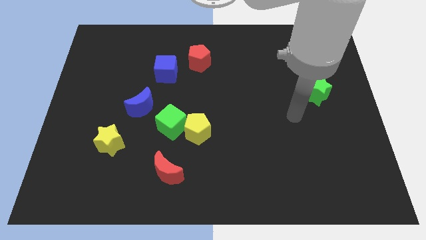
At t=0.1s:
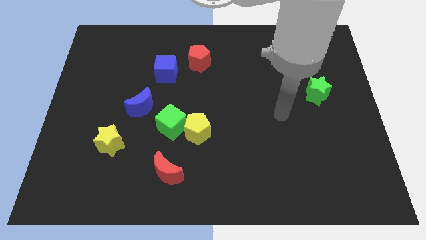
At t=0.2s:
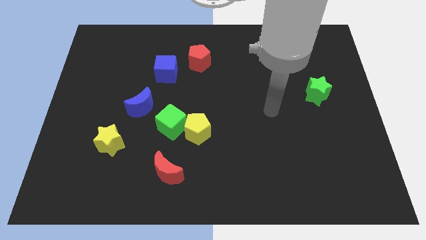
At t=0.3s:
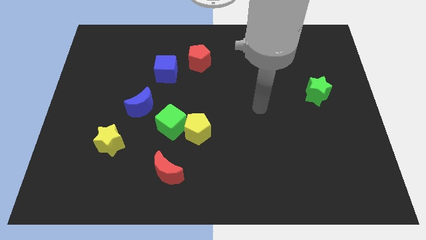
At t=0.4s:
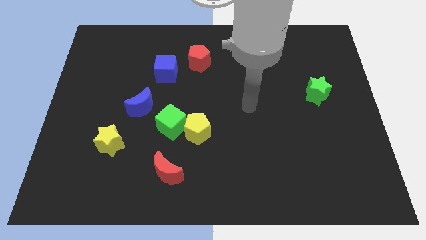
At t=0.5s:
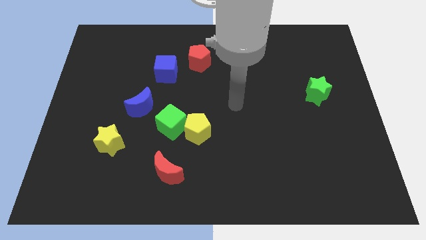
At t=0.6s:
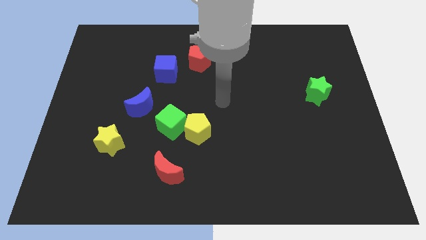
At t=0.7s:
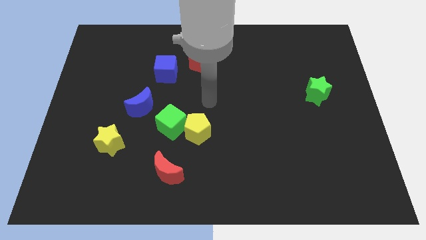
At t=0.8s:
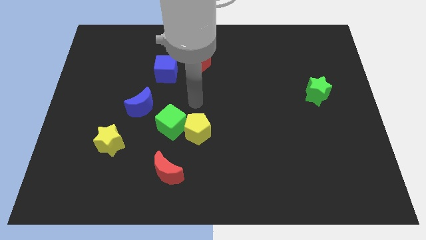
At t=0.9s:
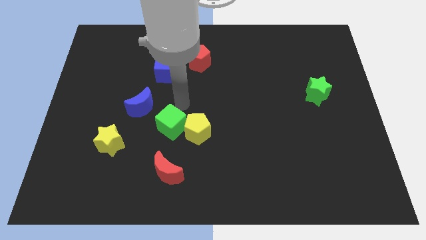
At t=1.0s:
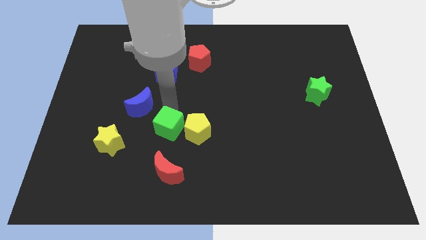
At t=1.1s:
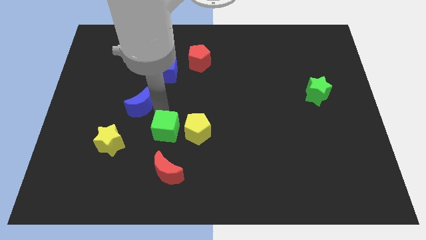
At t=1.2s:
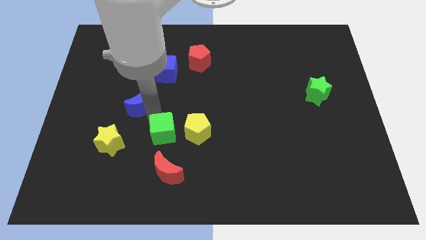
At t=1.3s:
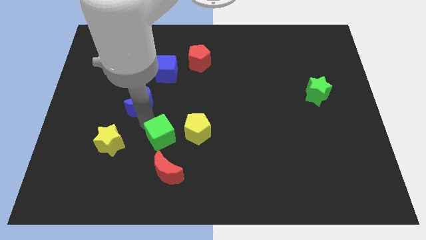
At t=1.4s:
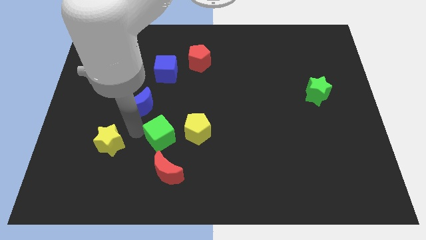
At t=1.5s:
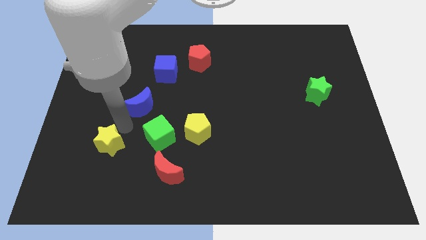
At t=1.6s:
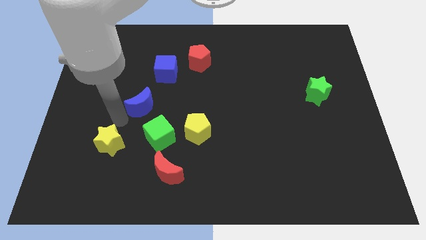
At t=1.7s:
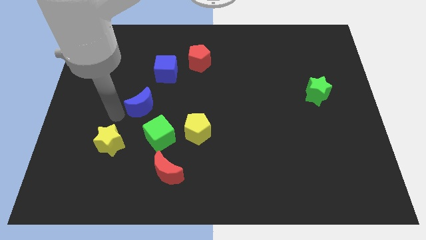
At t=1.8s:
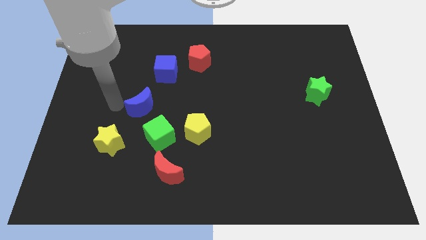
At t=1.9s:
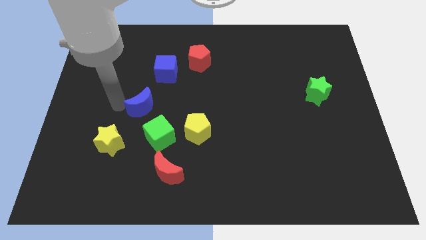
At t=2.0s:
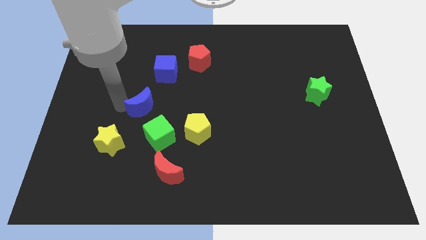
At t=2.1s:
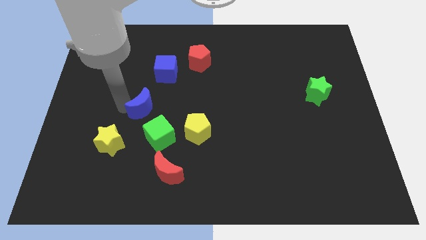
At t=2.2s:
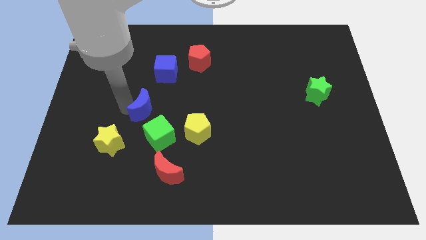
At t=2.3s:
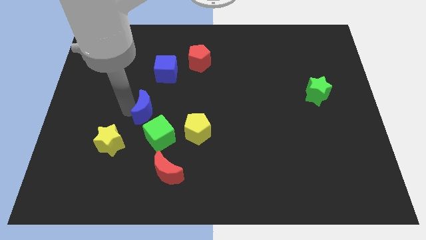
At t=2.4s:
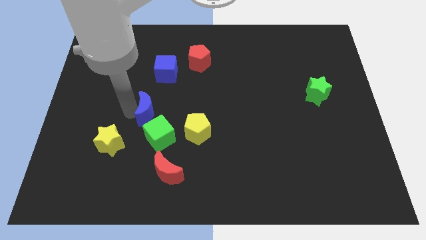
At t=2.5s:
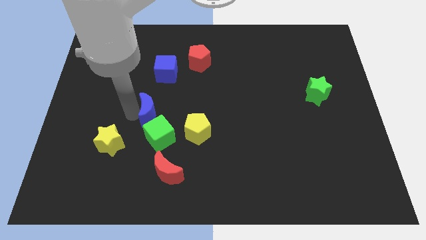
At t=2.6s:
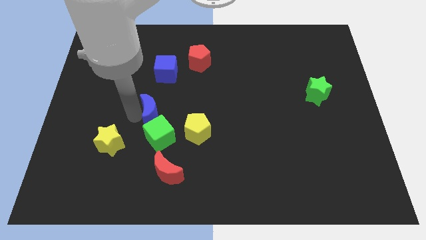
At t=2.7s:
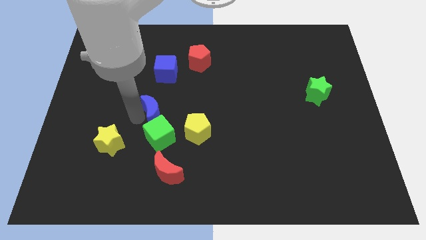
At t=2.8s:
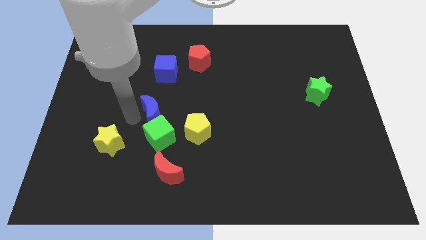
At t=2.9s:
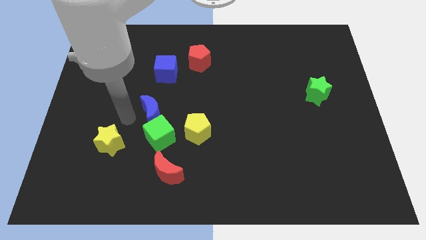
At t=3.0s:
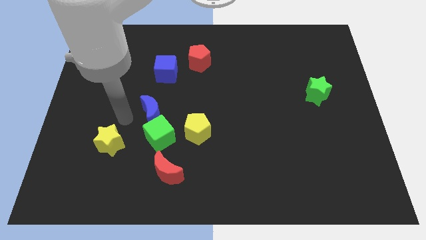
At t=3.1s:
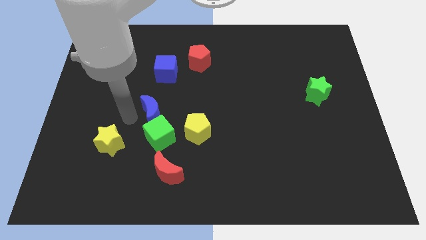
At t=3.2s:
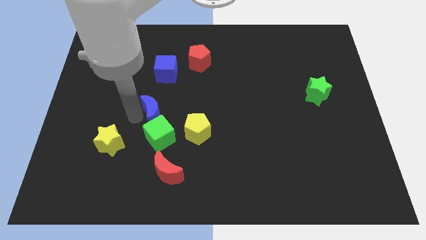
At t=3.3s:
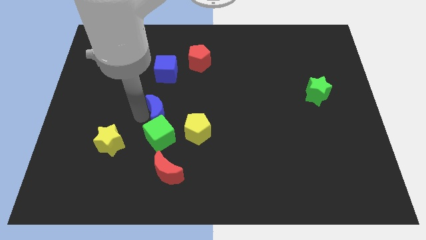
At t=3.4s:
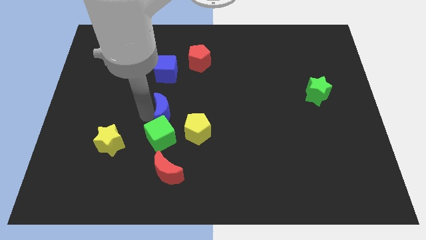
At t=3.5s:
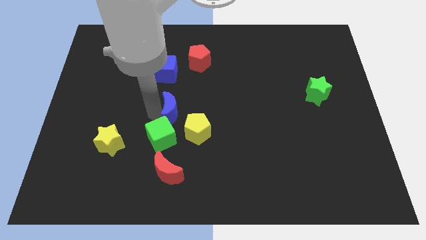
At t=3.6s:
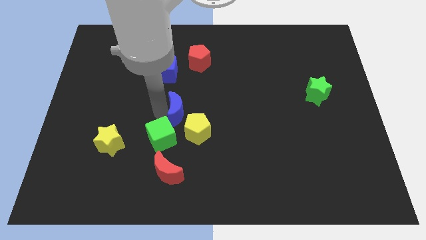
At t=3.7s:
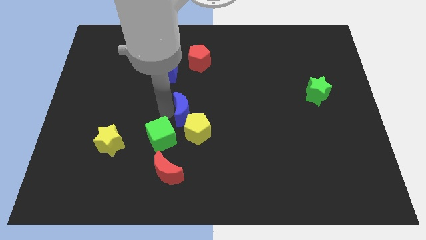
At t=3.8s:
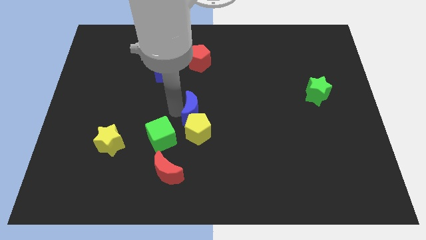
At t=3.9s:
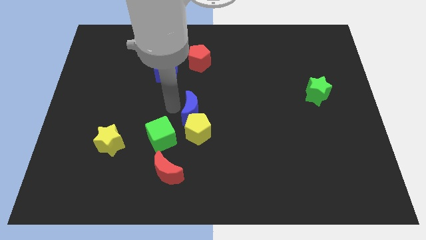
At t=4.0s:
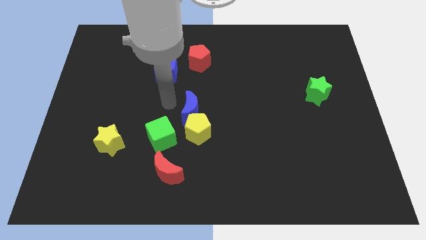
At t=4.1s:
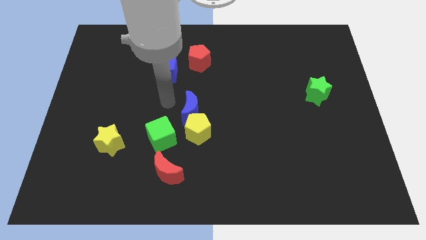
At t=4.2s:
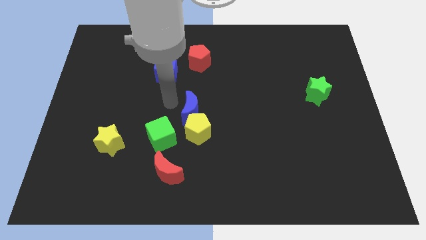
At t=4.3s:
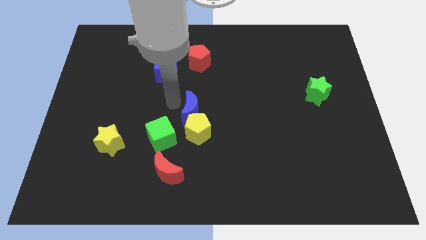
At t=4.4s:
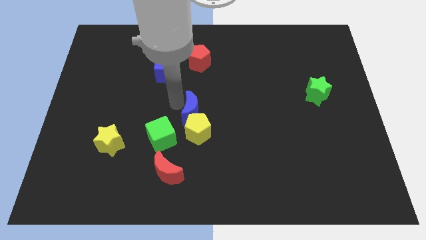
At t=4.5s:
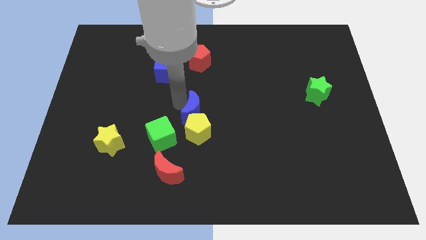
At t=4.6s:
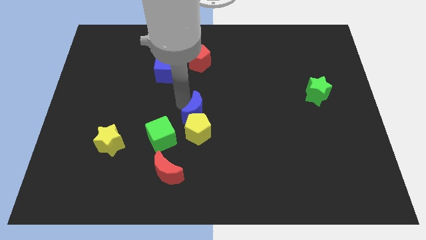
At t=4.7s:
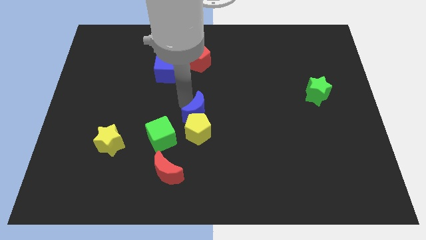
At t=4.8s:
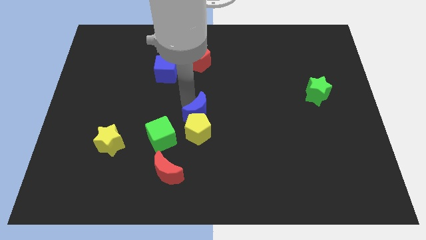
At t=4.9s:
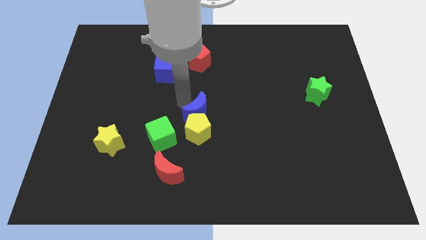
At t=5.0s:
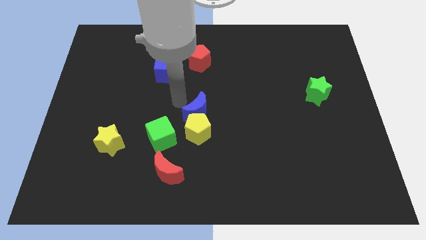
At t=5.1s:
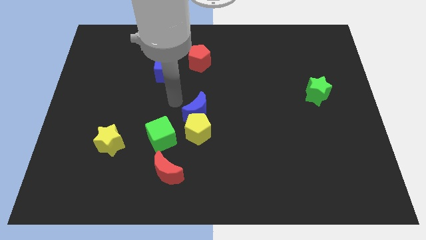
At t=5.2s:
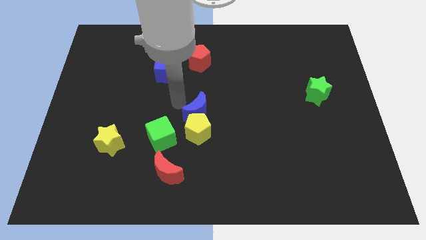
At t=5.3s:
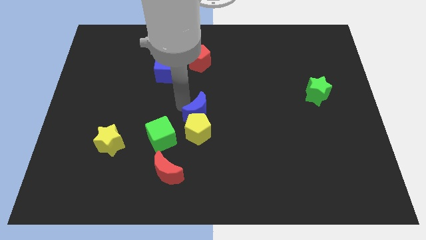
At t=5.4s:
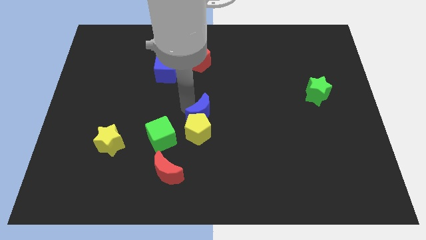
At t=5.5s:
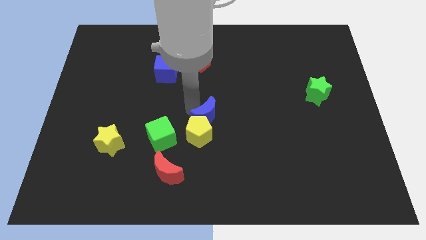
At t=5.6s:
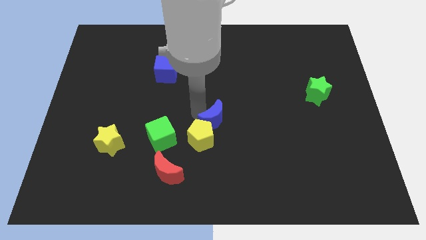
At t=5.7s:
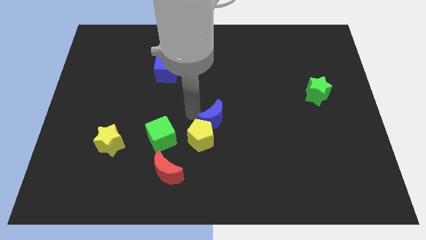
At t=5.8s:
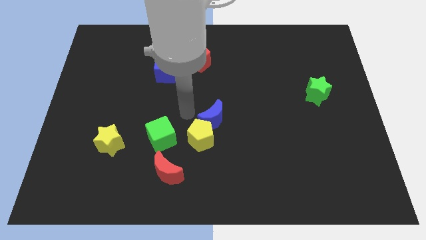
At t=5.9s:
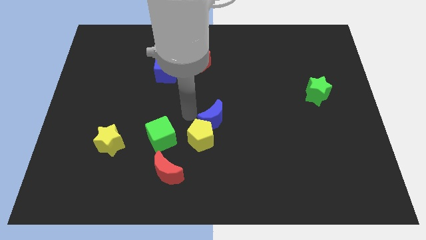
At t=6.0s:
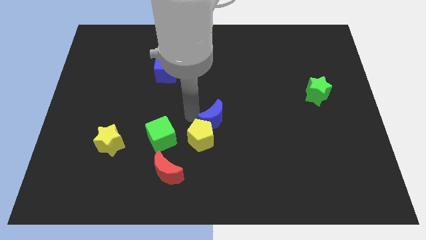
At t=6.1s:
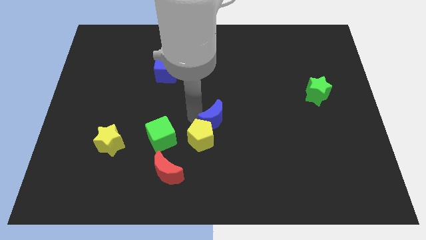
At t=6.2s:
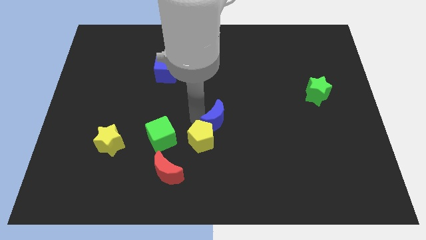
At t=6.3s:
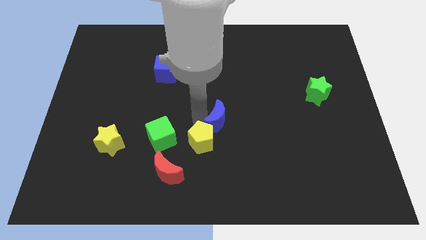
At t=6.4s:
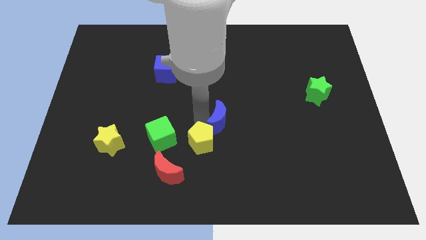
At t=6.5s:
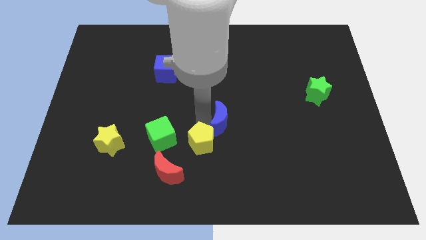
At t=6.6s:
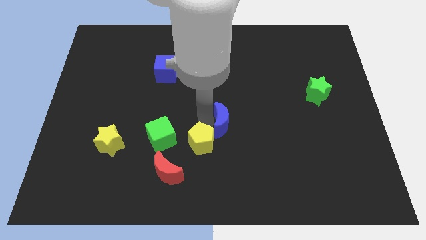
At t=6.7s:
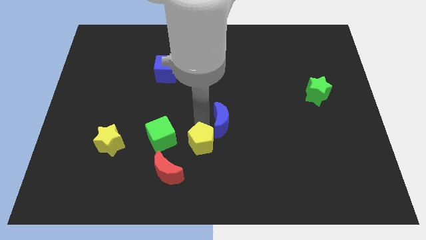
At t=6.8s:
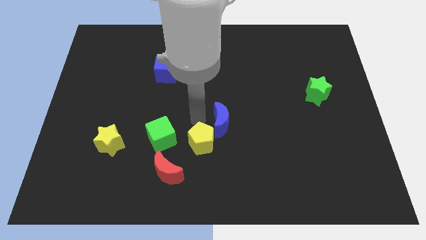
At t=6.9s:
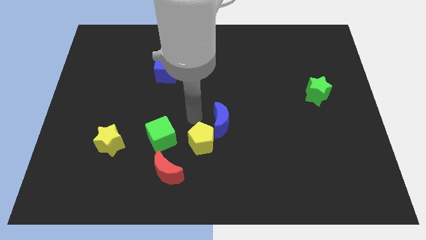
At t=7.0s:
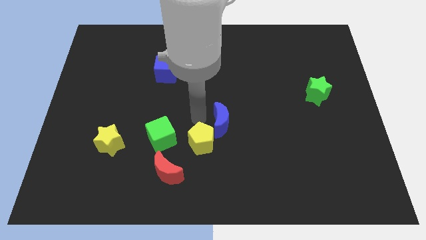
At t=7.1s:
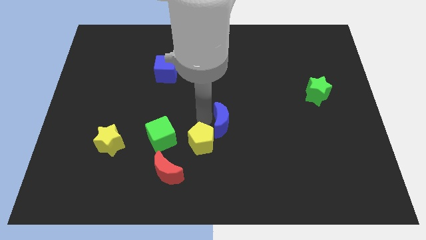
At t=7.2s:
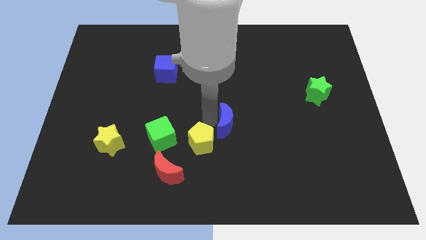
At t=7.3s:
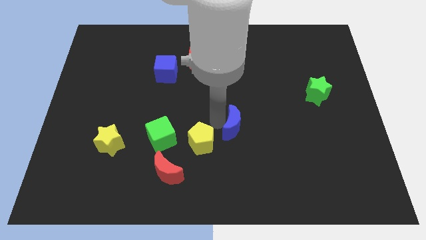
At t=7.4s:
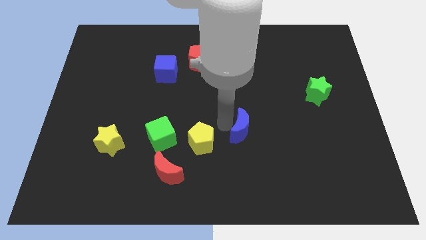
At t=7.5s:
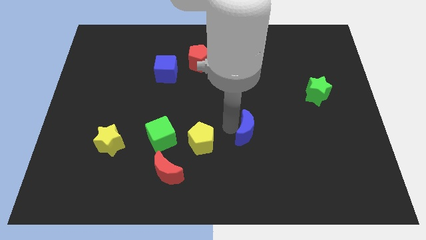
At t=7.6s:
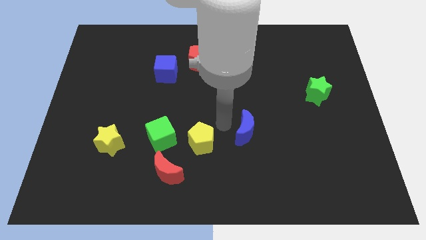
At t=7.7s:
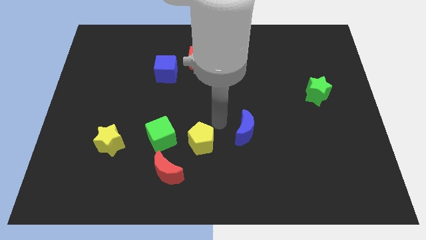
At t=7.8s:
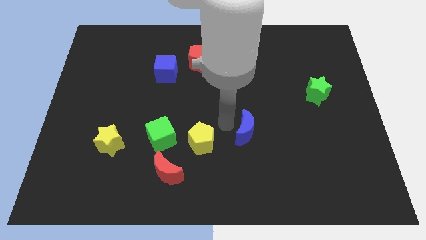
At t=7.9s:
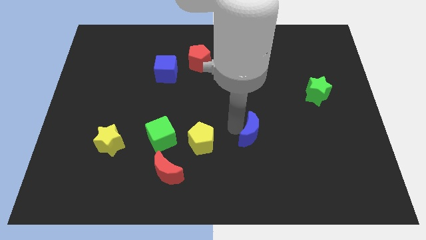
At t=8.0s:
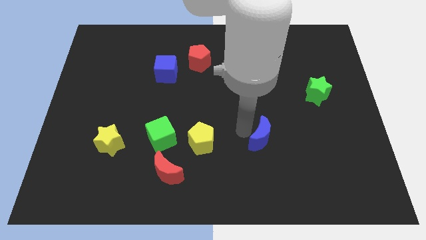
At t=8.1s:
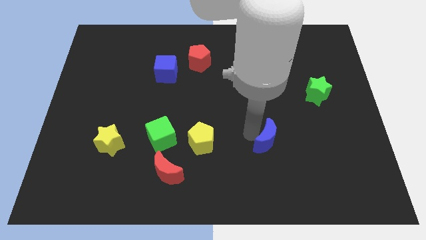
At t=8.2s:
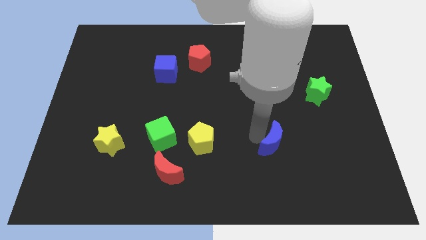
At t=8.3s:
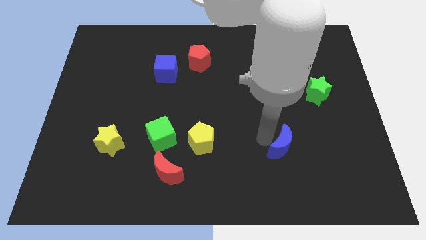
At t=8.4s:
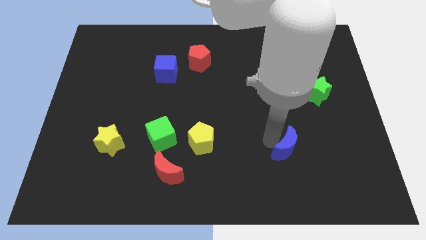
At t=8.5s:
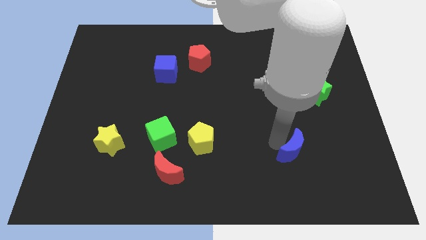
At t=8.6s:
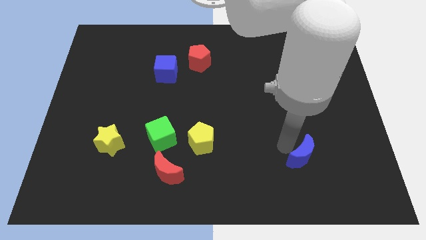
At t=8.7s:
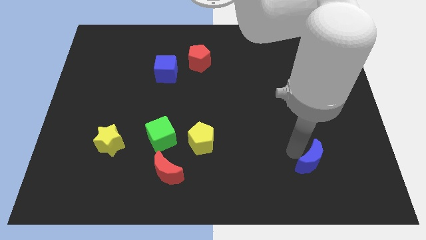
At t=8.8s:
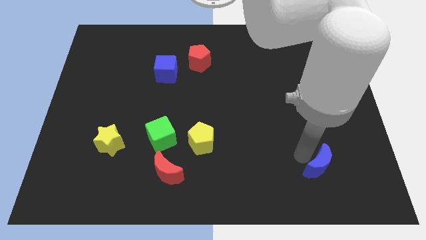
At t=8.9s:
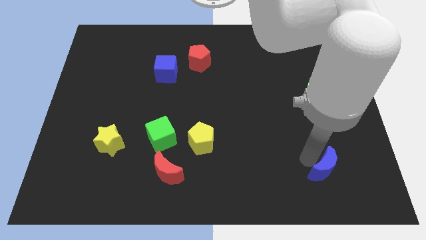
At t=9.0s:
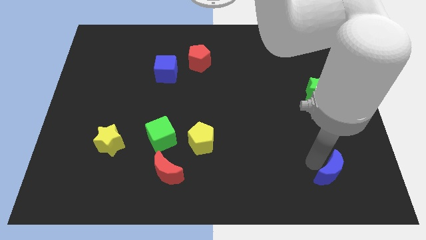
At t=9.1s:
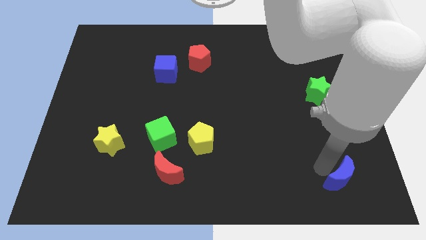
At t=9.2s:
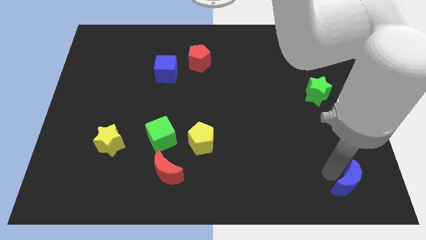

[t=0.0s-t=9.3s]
move the blue moon to the bottom right of the board
